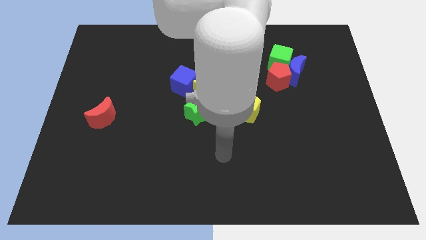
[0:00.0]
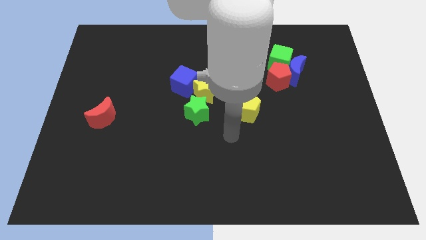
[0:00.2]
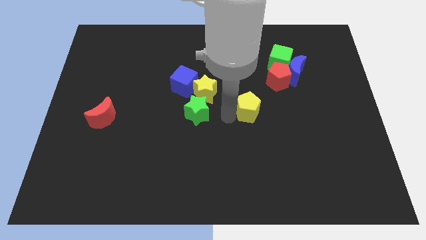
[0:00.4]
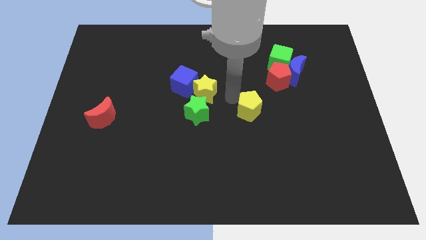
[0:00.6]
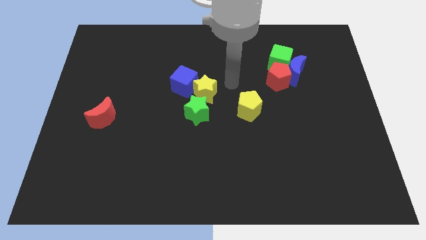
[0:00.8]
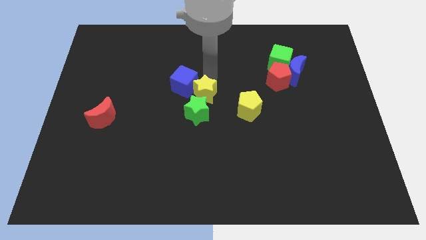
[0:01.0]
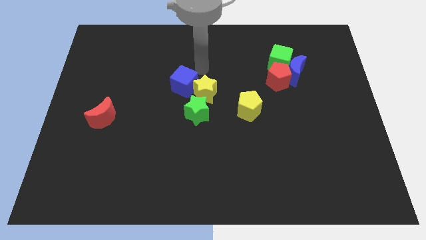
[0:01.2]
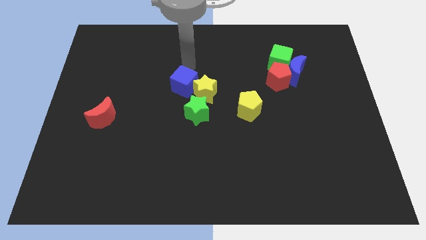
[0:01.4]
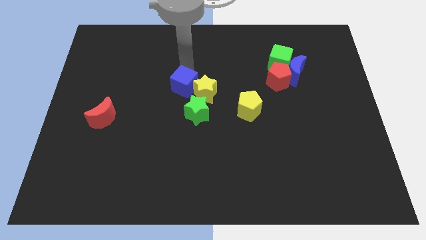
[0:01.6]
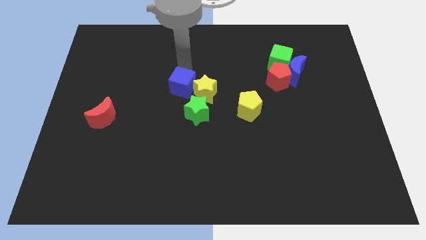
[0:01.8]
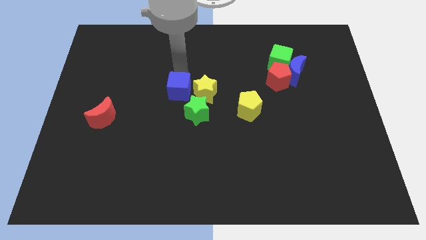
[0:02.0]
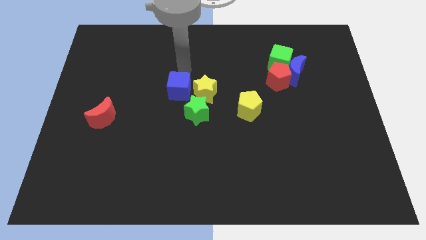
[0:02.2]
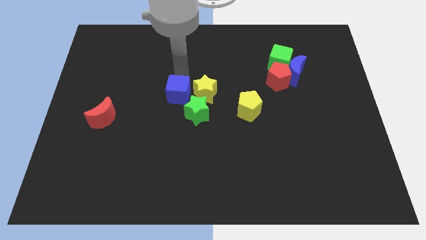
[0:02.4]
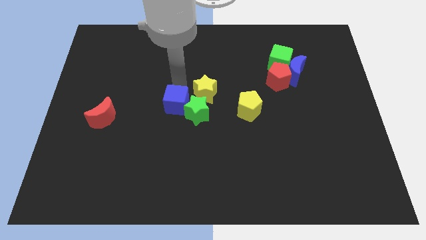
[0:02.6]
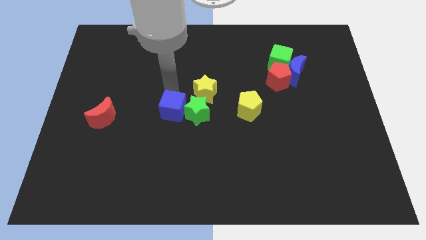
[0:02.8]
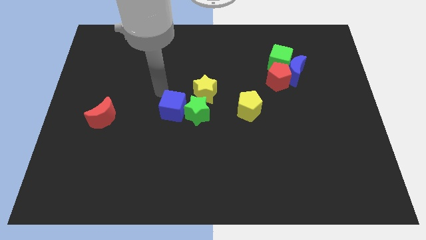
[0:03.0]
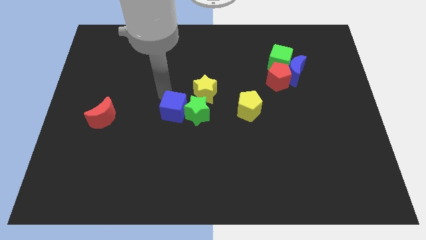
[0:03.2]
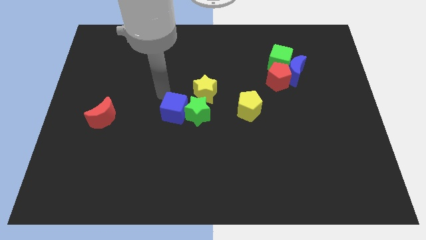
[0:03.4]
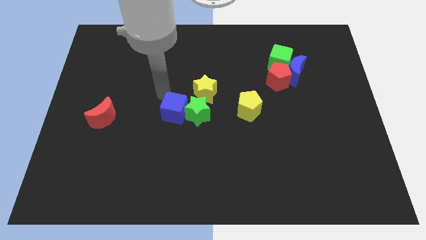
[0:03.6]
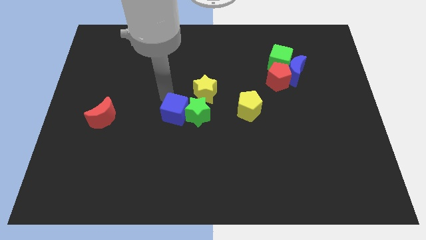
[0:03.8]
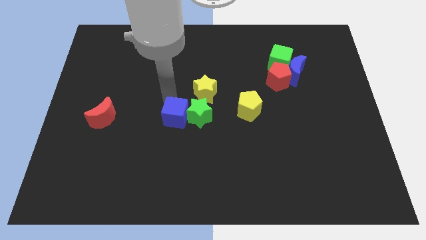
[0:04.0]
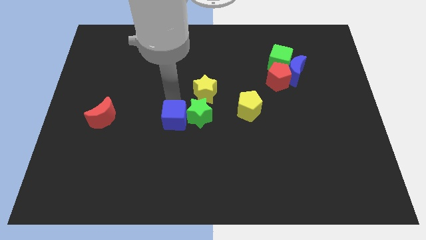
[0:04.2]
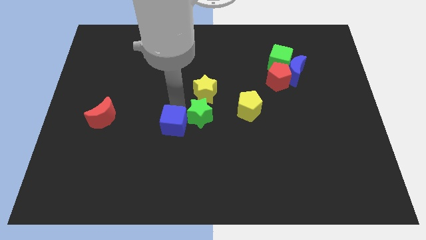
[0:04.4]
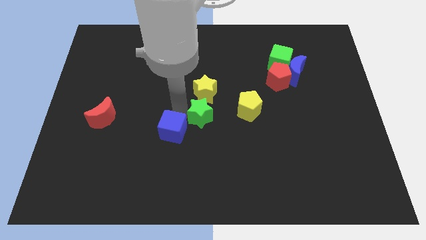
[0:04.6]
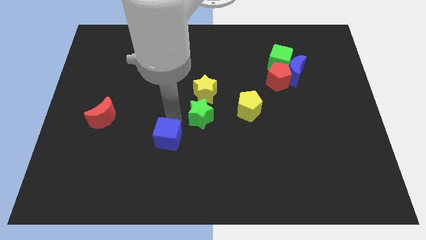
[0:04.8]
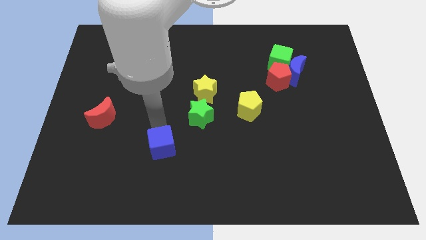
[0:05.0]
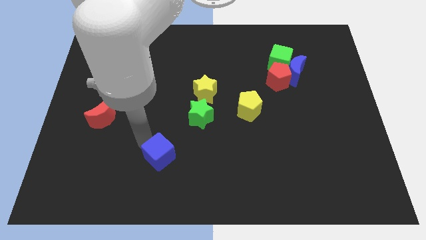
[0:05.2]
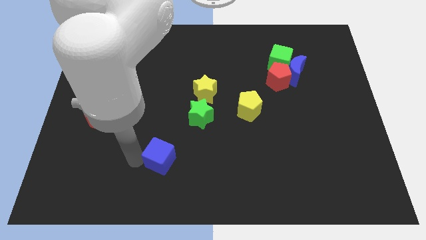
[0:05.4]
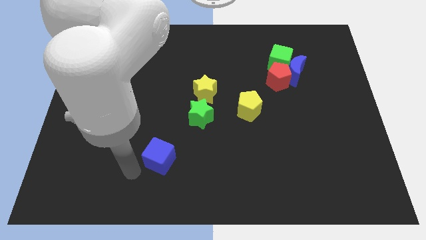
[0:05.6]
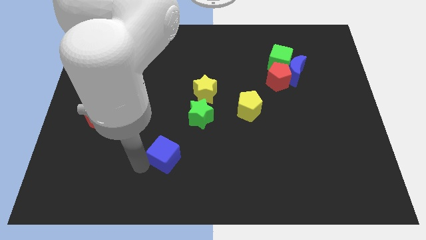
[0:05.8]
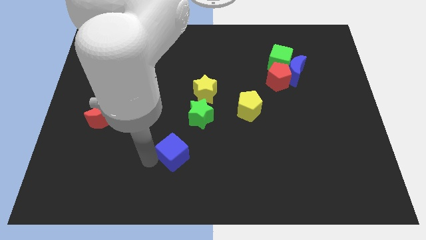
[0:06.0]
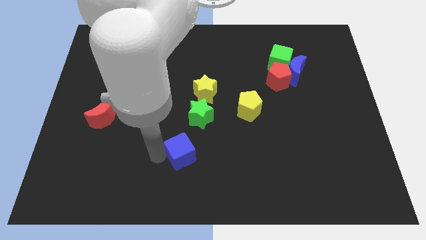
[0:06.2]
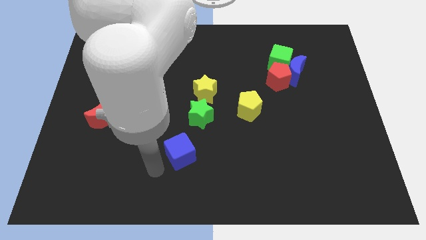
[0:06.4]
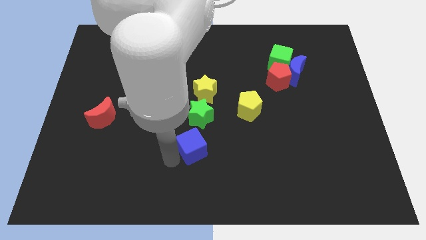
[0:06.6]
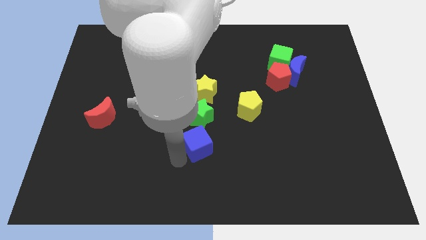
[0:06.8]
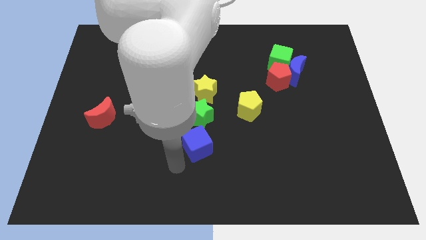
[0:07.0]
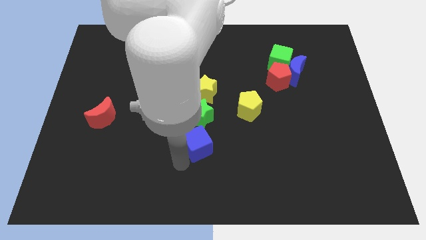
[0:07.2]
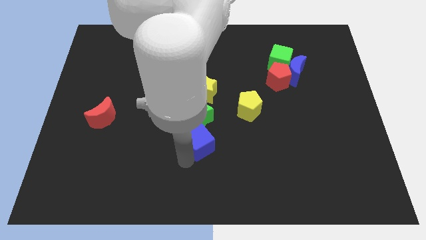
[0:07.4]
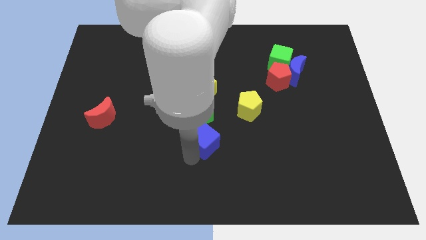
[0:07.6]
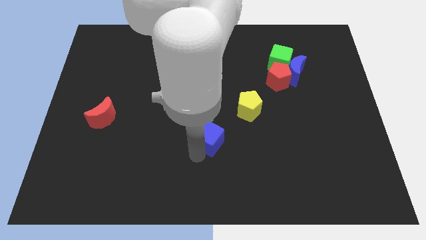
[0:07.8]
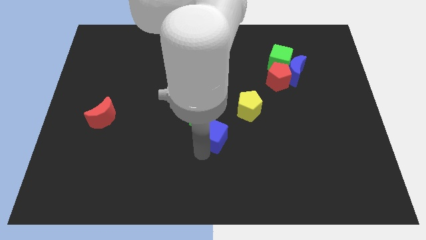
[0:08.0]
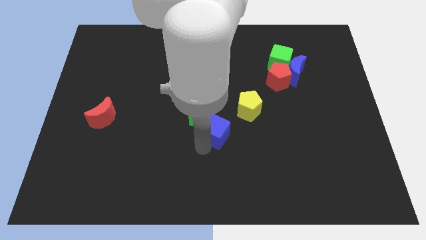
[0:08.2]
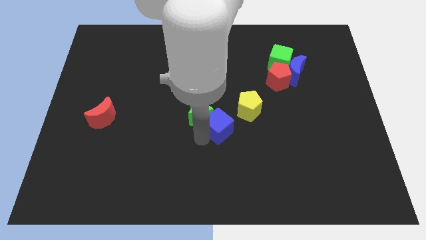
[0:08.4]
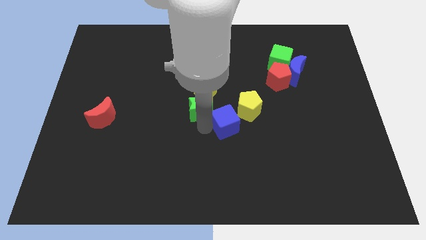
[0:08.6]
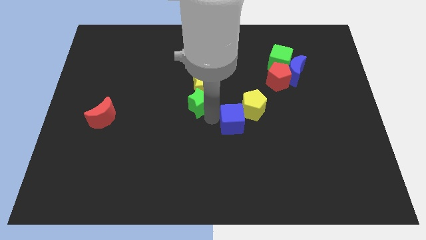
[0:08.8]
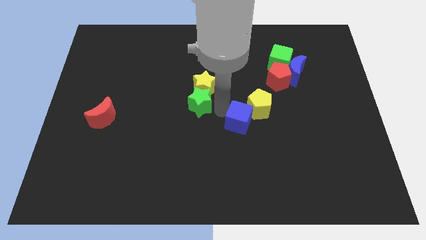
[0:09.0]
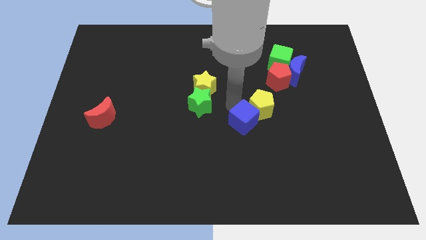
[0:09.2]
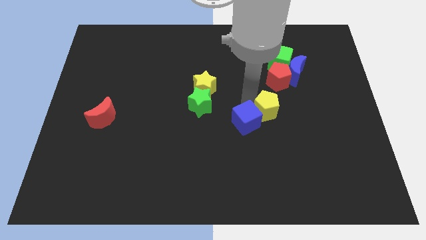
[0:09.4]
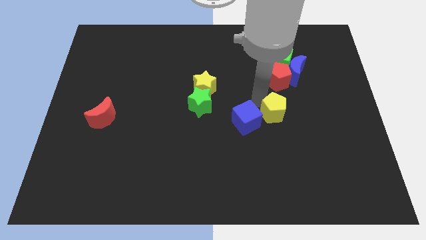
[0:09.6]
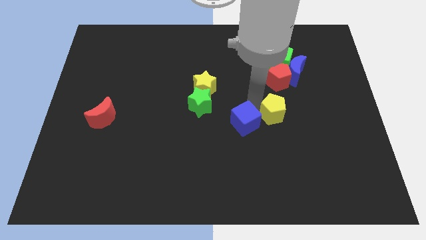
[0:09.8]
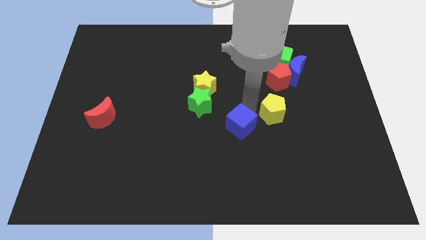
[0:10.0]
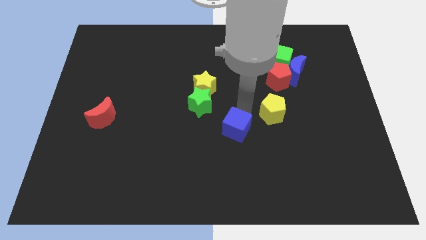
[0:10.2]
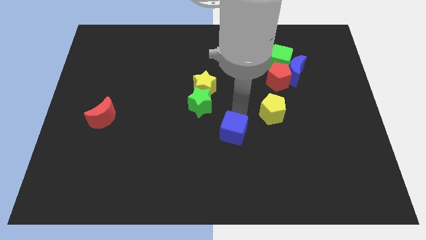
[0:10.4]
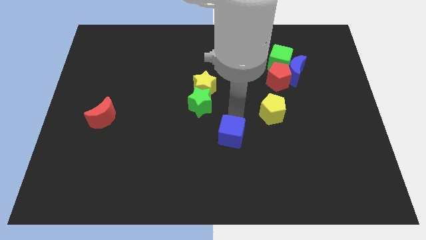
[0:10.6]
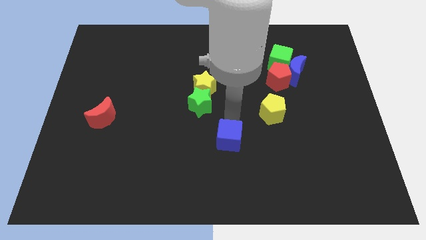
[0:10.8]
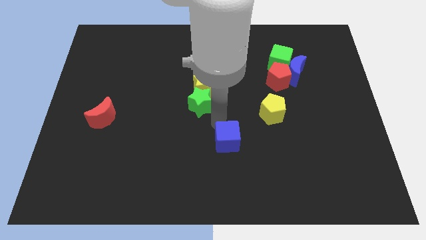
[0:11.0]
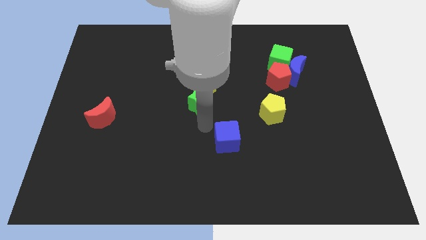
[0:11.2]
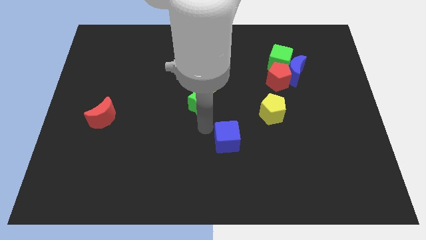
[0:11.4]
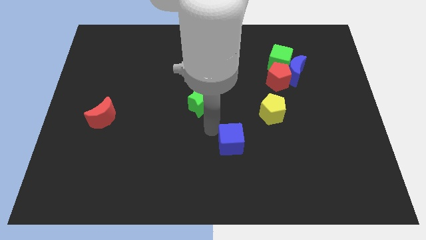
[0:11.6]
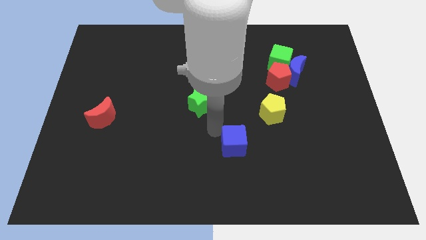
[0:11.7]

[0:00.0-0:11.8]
push the blue cube downwards and to the right

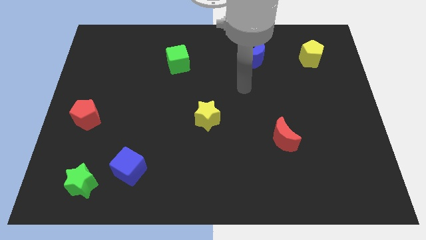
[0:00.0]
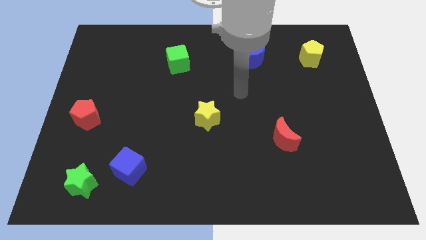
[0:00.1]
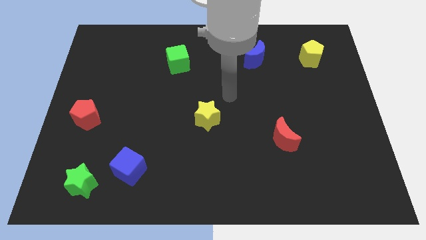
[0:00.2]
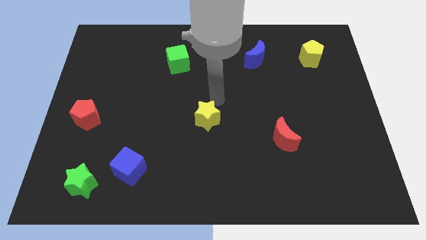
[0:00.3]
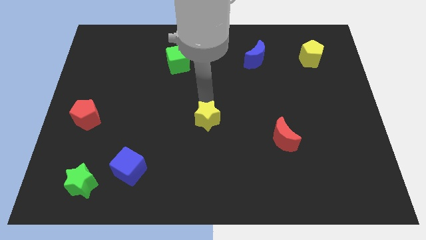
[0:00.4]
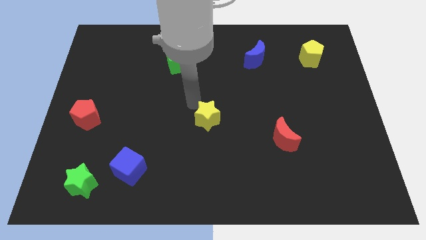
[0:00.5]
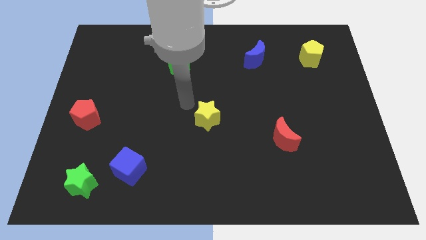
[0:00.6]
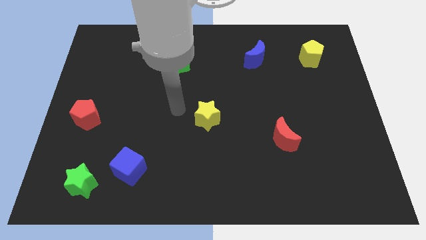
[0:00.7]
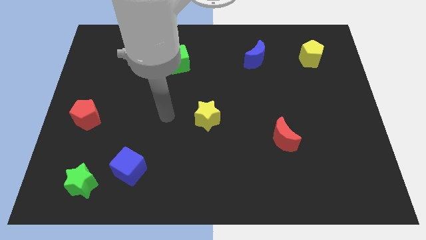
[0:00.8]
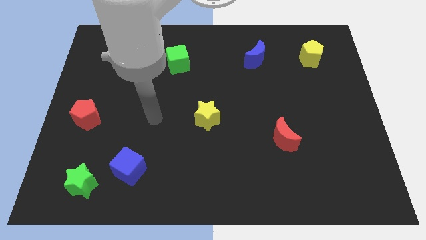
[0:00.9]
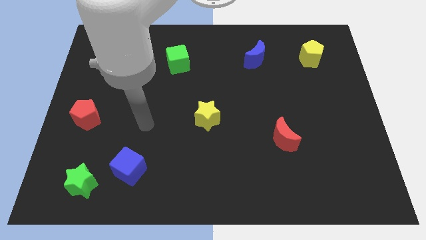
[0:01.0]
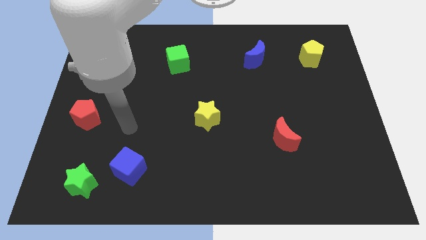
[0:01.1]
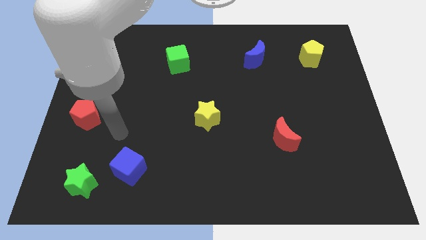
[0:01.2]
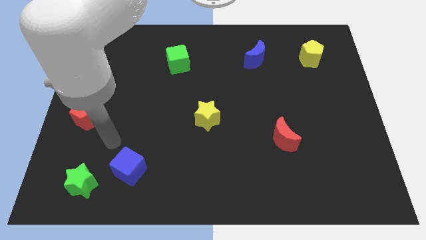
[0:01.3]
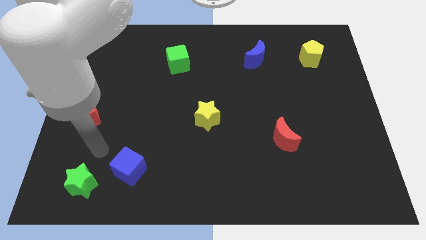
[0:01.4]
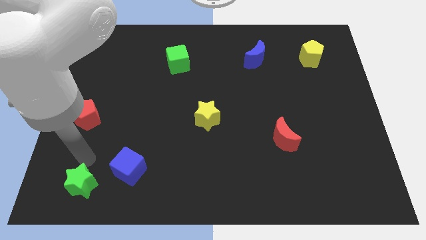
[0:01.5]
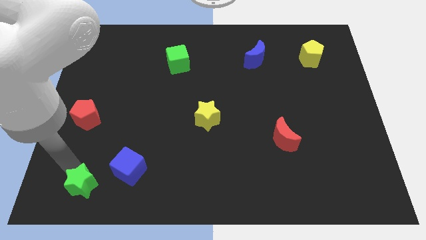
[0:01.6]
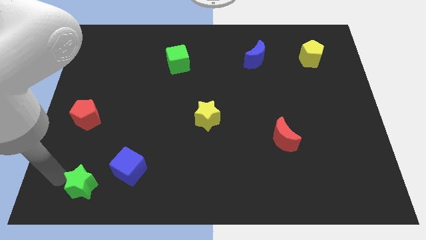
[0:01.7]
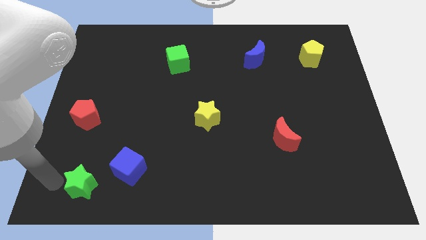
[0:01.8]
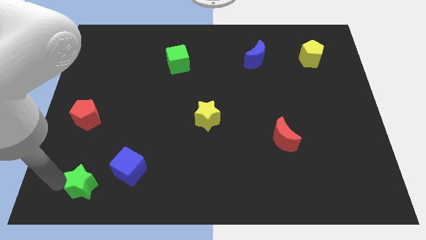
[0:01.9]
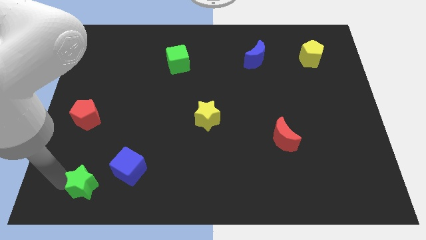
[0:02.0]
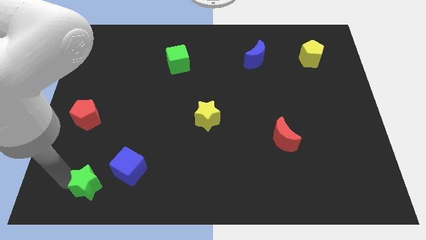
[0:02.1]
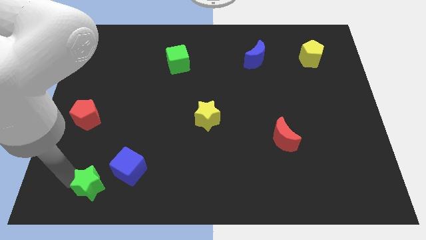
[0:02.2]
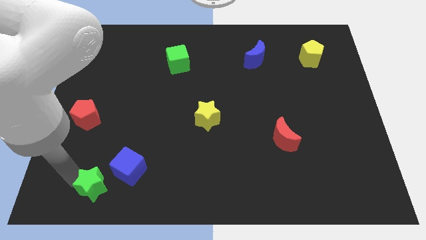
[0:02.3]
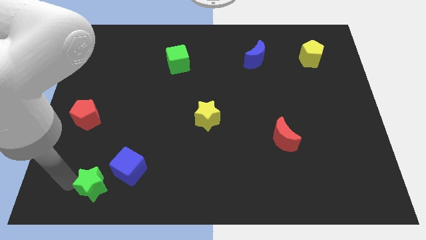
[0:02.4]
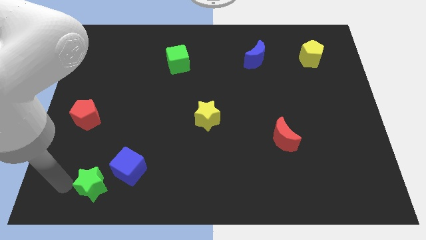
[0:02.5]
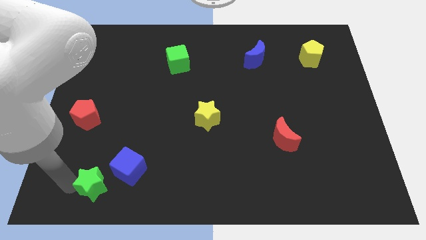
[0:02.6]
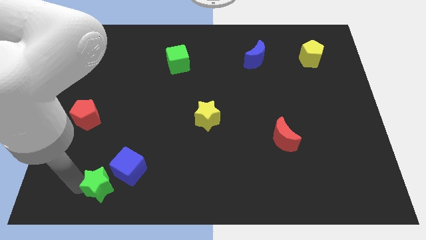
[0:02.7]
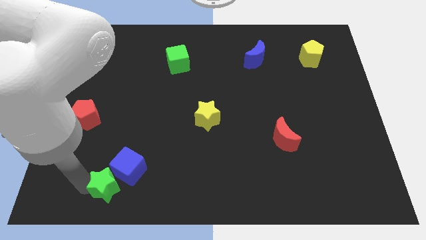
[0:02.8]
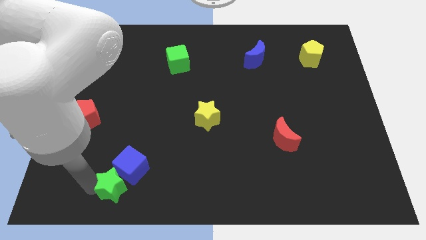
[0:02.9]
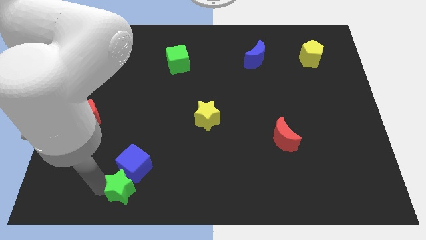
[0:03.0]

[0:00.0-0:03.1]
slide the green star right slightly
